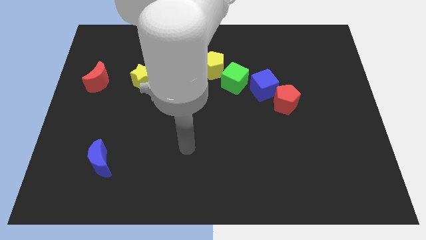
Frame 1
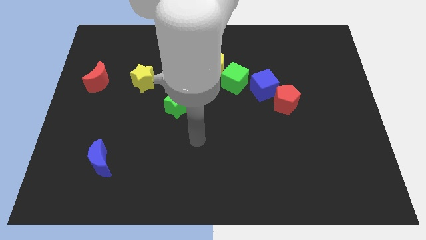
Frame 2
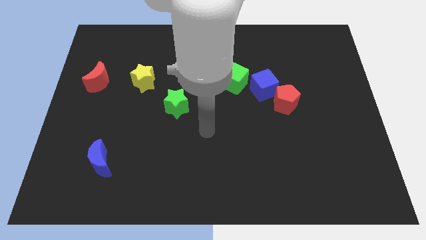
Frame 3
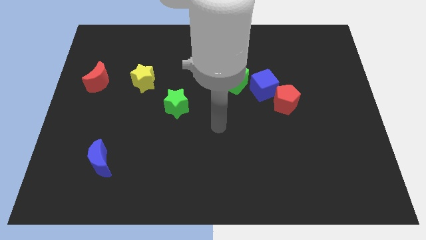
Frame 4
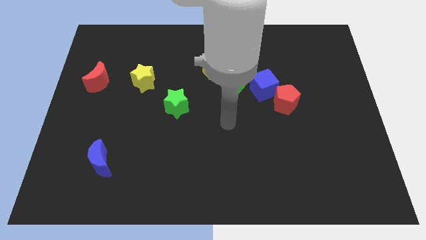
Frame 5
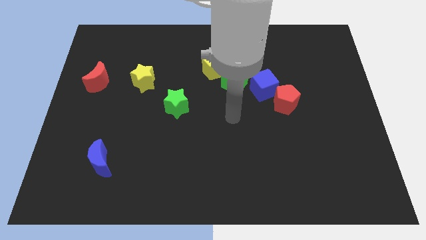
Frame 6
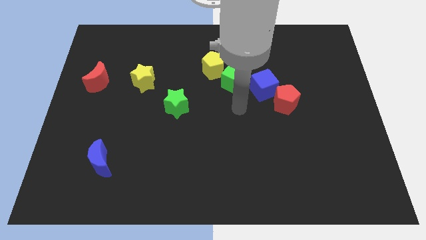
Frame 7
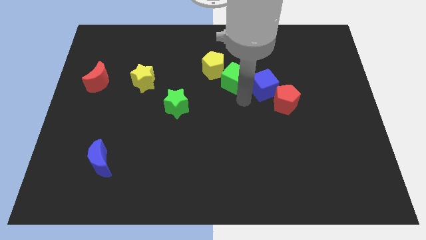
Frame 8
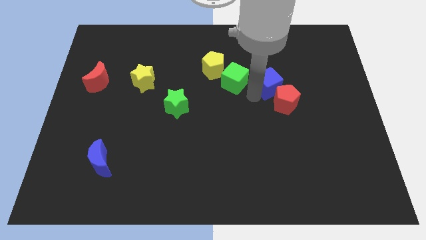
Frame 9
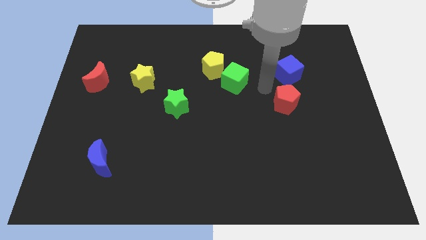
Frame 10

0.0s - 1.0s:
separate the red pentagon from the blue cube

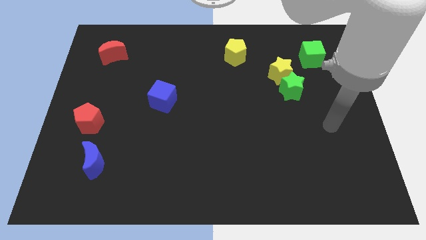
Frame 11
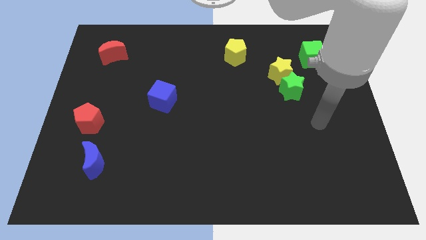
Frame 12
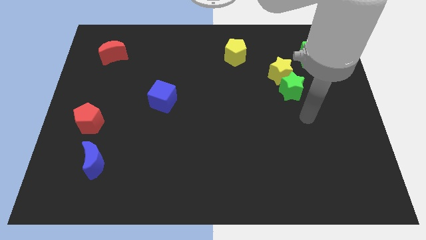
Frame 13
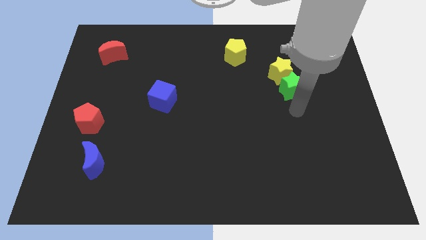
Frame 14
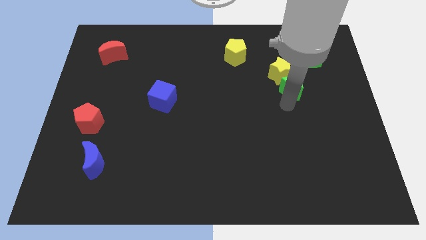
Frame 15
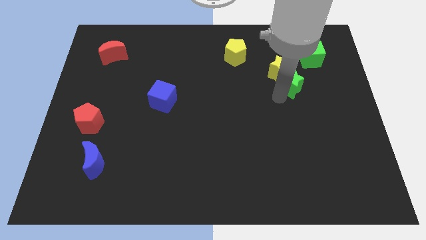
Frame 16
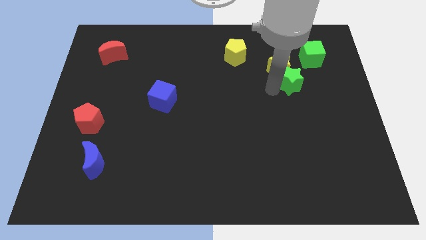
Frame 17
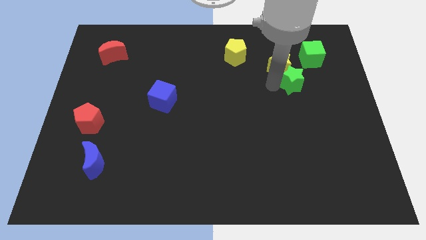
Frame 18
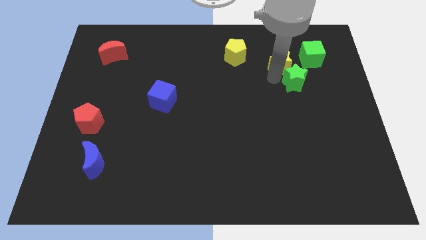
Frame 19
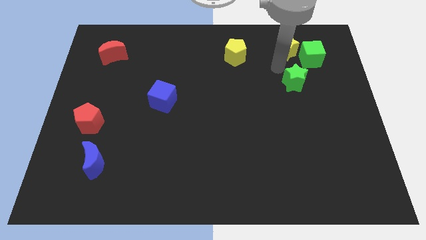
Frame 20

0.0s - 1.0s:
separate the green star from the yellow star

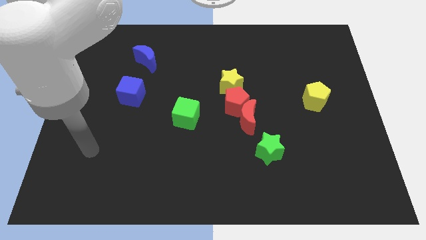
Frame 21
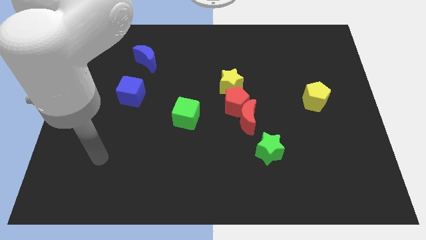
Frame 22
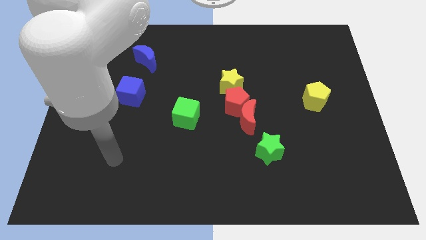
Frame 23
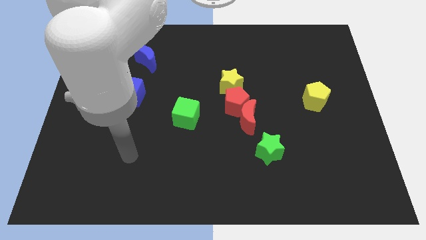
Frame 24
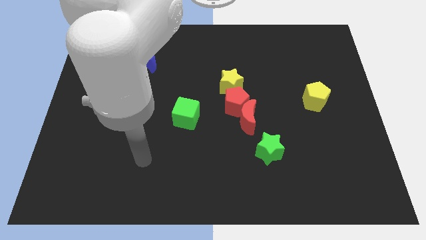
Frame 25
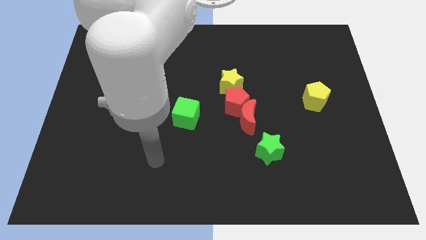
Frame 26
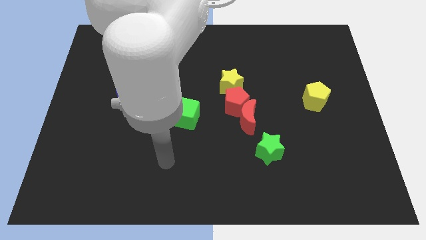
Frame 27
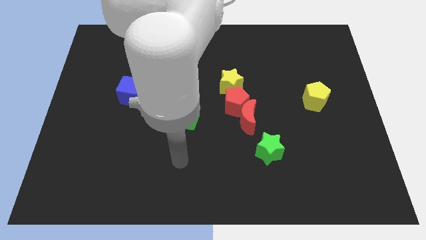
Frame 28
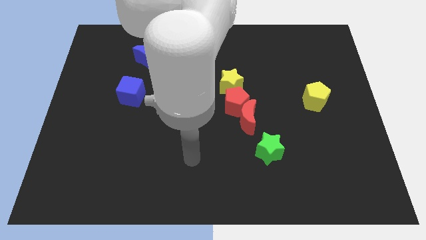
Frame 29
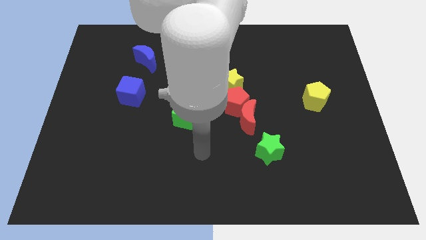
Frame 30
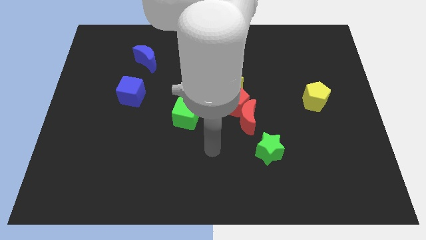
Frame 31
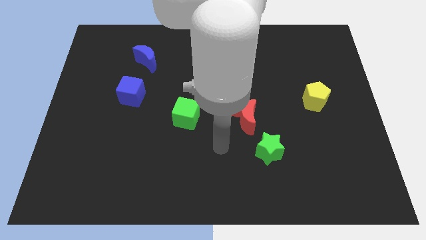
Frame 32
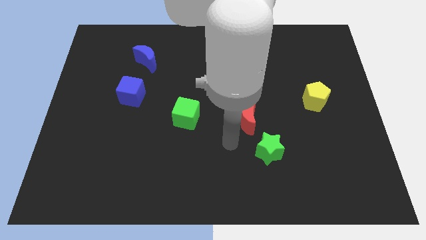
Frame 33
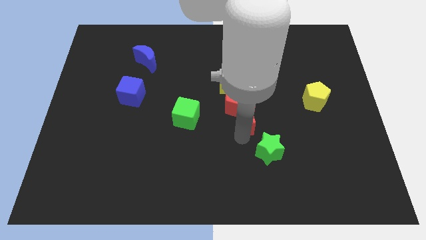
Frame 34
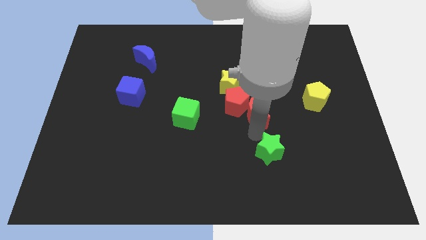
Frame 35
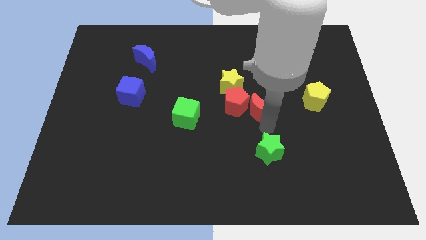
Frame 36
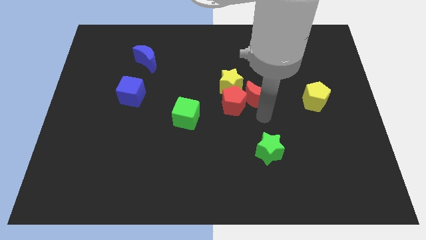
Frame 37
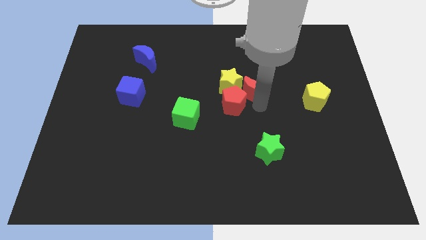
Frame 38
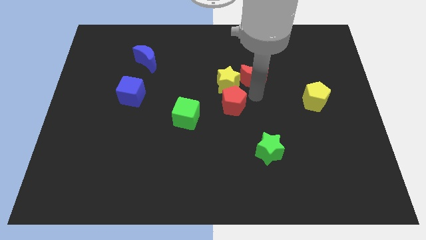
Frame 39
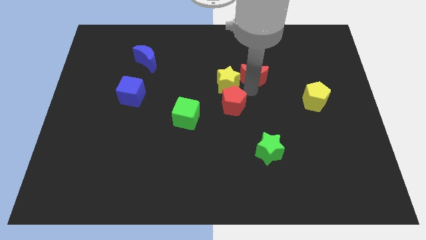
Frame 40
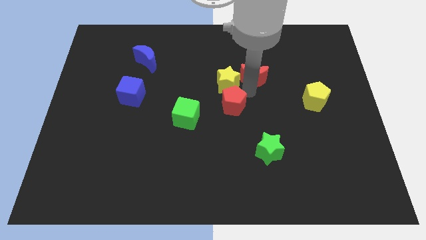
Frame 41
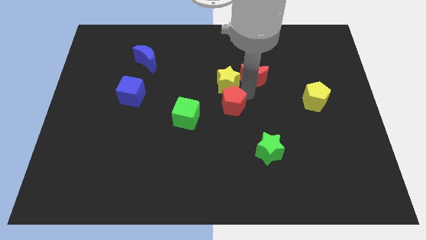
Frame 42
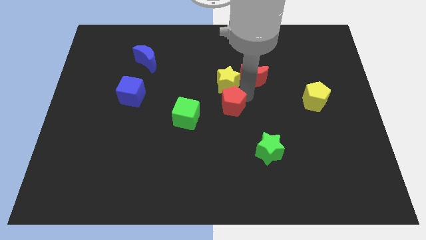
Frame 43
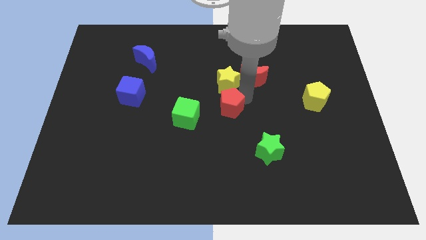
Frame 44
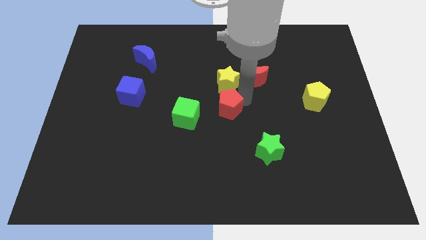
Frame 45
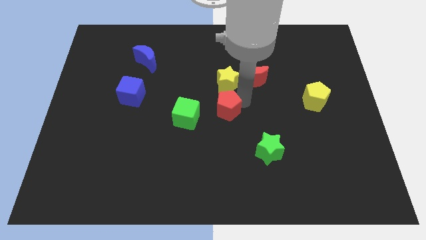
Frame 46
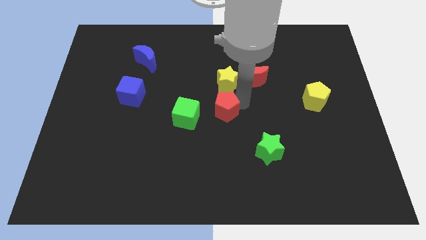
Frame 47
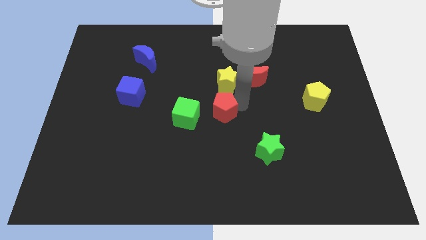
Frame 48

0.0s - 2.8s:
move the red pentagon away from the red moon and yellow star

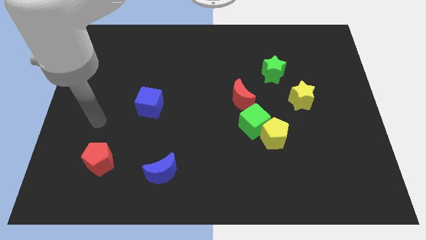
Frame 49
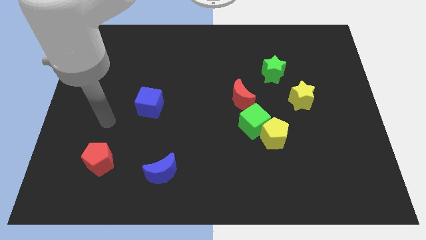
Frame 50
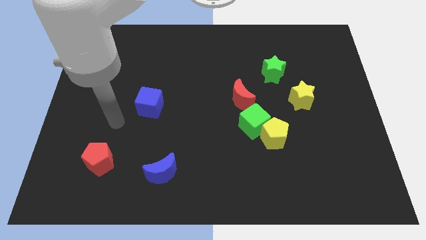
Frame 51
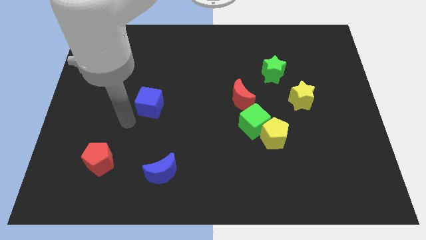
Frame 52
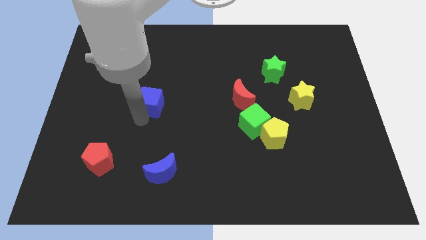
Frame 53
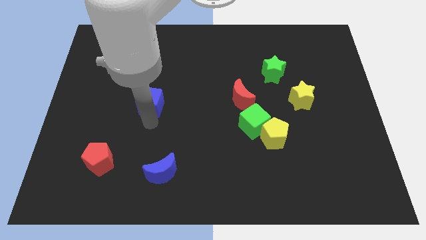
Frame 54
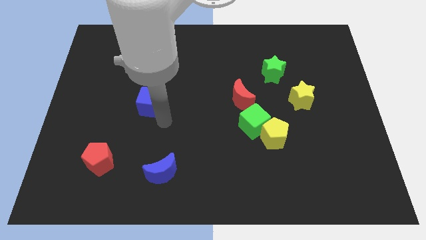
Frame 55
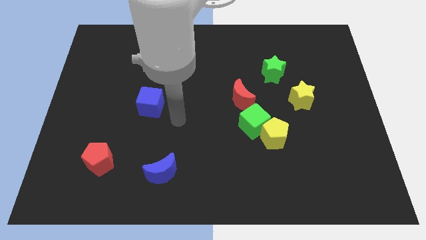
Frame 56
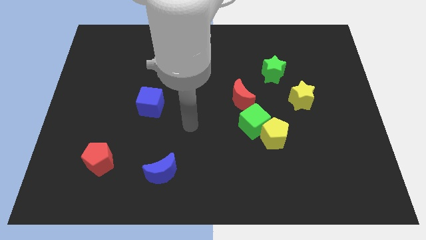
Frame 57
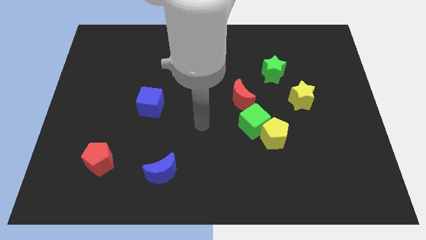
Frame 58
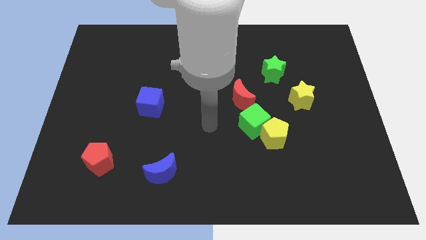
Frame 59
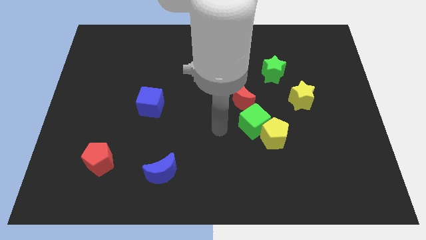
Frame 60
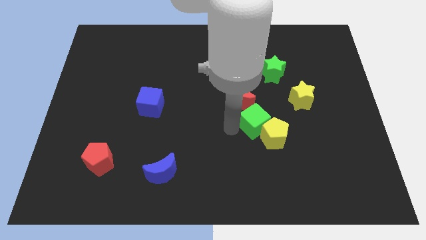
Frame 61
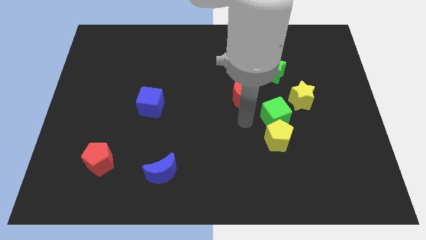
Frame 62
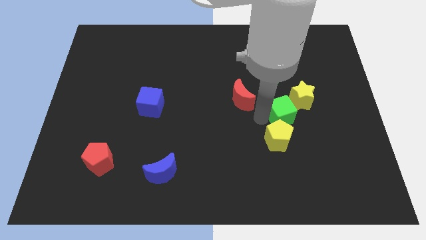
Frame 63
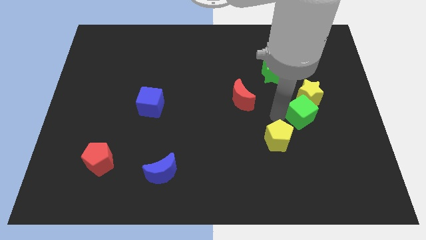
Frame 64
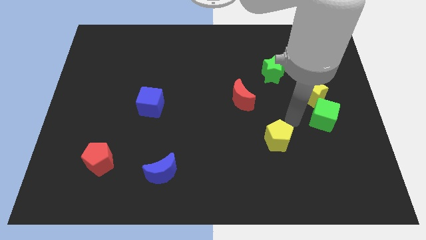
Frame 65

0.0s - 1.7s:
separate the yellow pentagon from the green cube

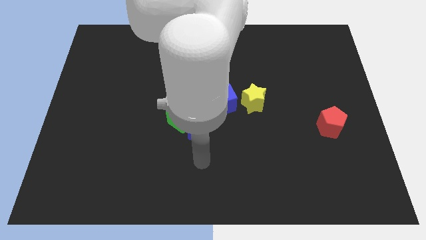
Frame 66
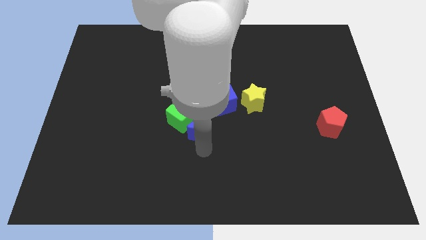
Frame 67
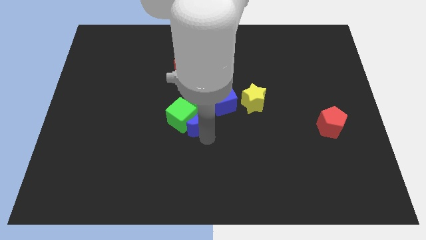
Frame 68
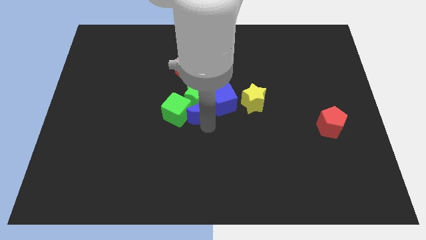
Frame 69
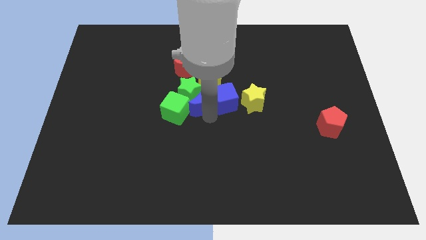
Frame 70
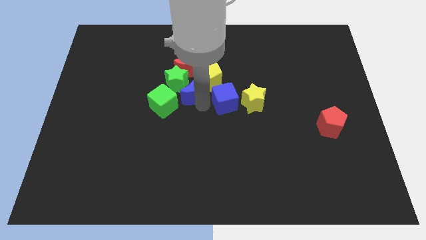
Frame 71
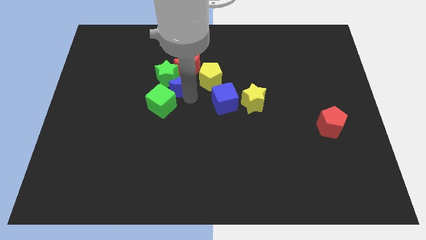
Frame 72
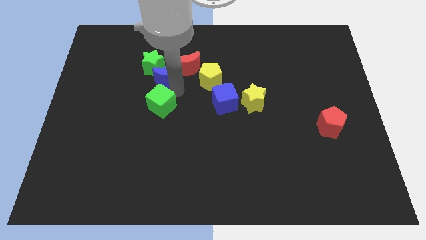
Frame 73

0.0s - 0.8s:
pull the green cube apart from the blue moon and green star

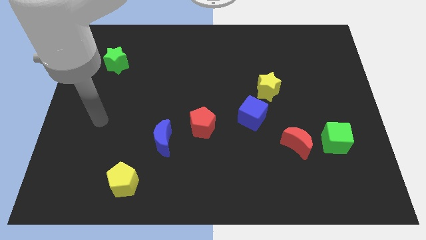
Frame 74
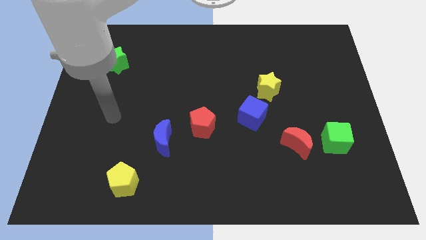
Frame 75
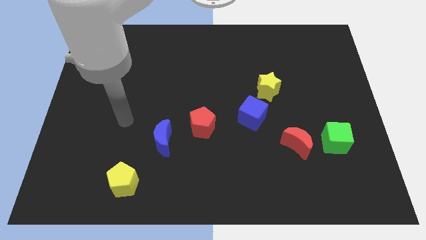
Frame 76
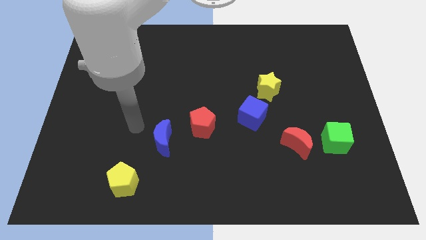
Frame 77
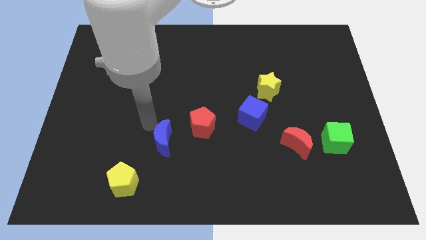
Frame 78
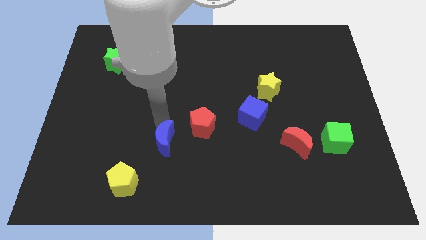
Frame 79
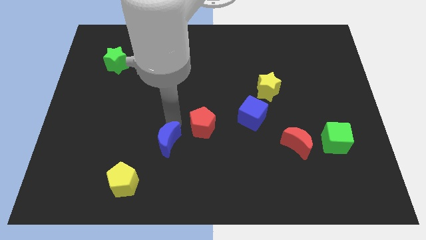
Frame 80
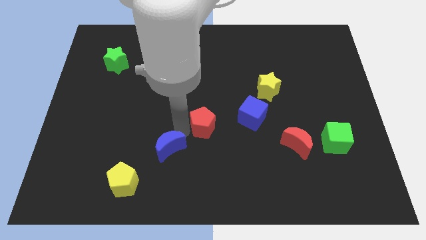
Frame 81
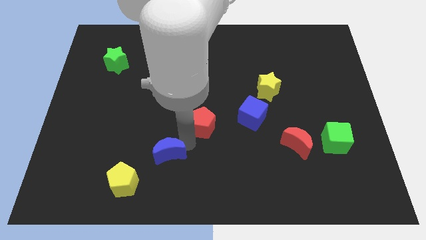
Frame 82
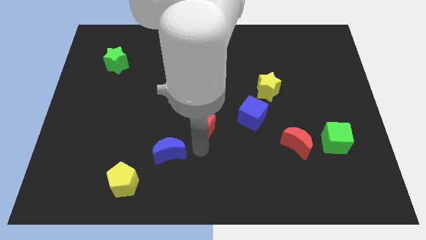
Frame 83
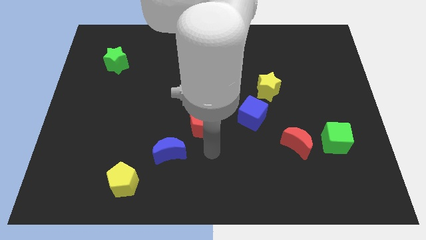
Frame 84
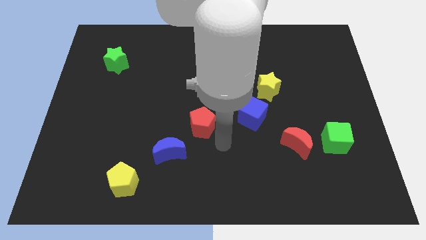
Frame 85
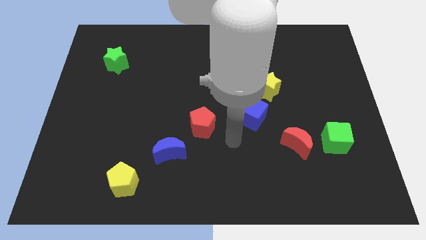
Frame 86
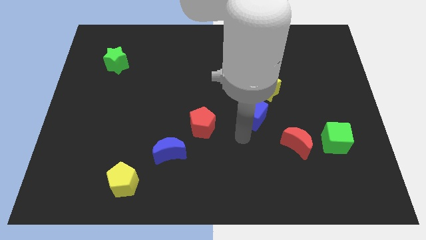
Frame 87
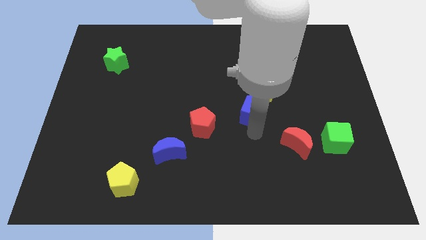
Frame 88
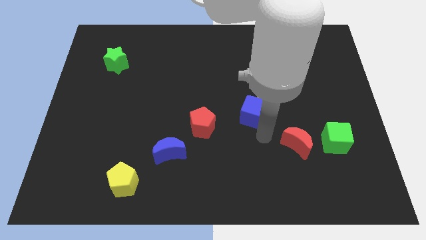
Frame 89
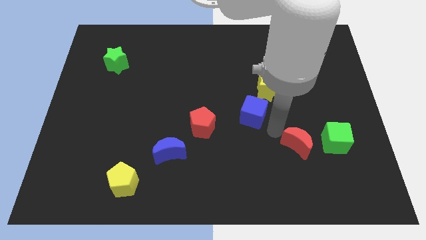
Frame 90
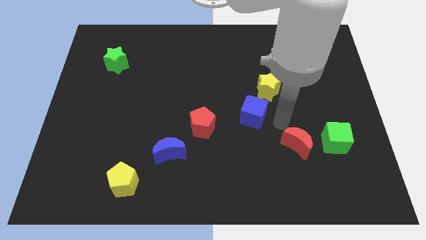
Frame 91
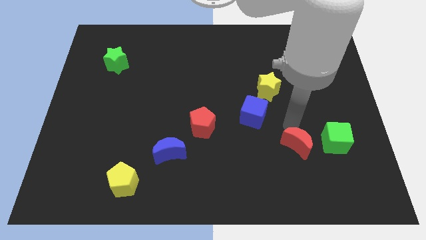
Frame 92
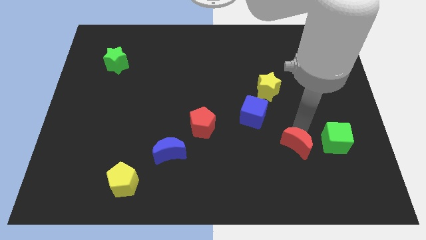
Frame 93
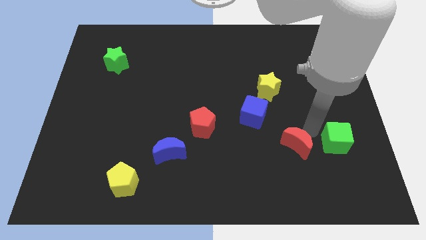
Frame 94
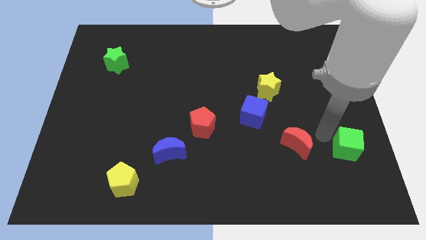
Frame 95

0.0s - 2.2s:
move the red moon away from the green cube
